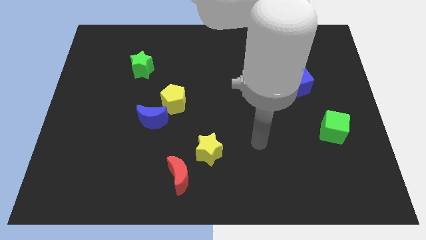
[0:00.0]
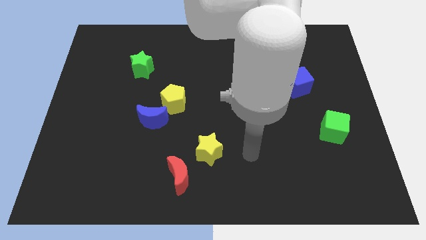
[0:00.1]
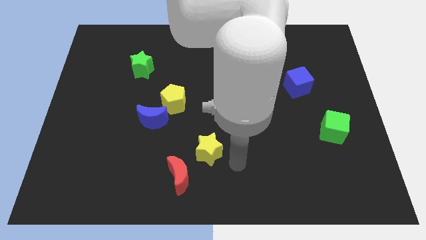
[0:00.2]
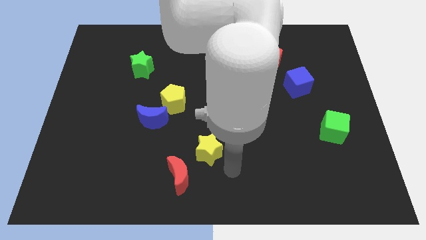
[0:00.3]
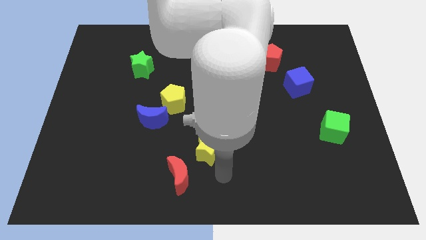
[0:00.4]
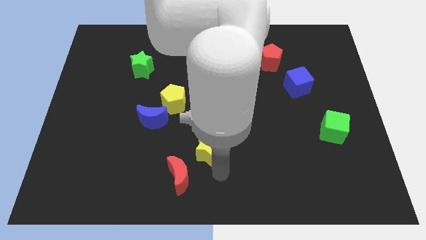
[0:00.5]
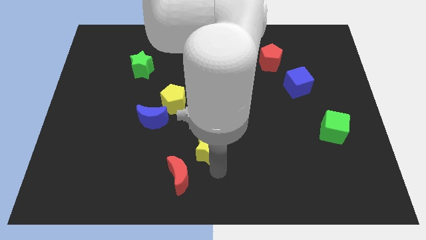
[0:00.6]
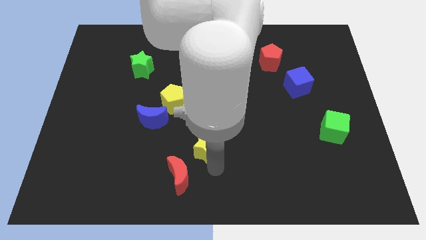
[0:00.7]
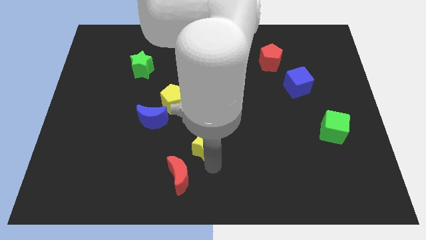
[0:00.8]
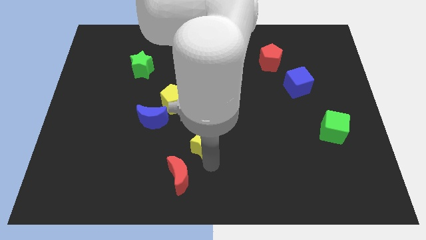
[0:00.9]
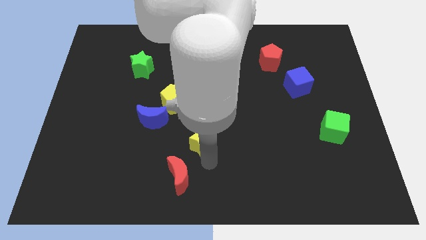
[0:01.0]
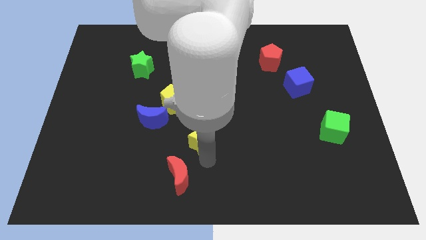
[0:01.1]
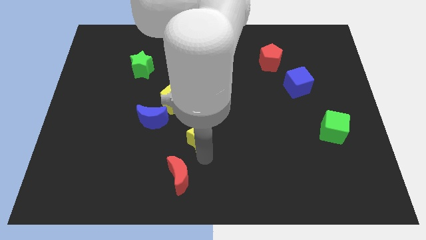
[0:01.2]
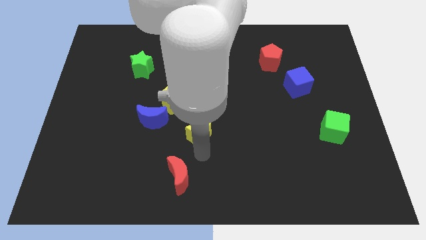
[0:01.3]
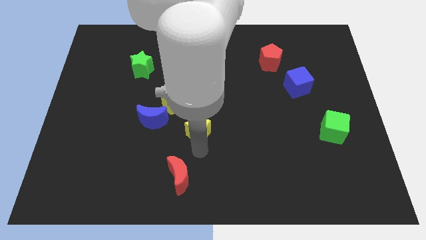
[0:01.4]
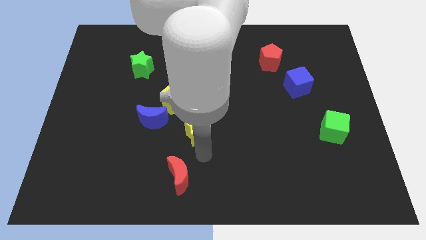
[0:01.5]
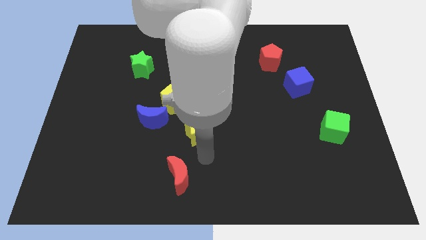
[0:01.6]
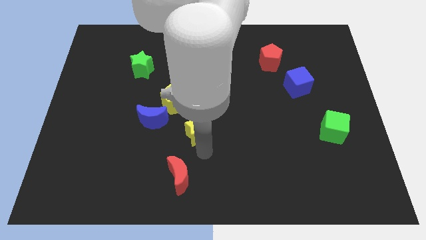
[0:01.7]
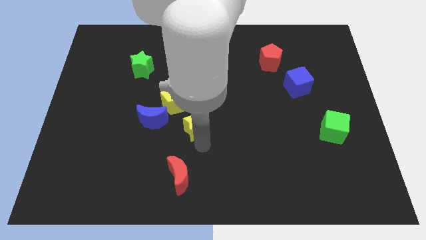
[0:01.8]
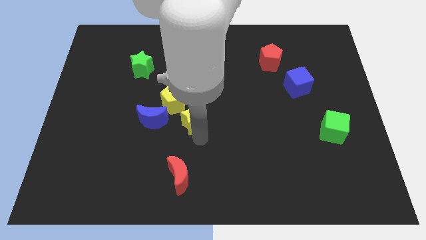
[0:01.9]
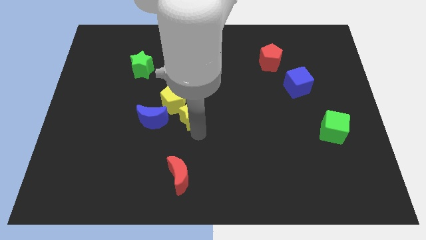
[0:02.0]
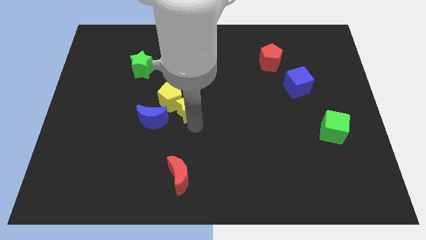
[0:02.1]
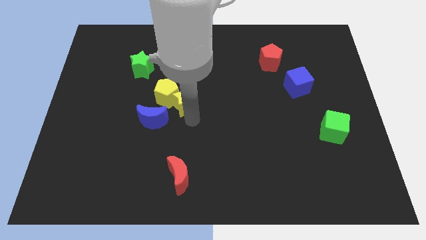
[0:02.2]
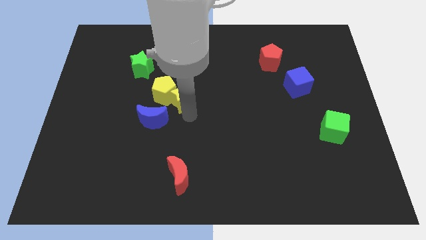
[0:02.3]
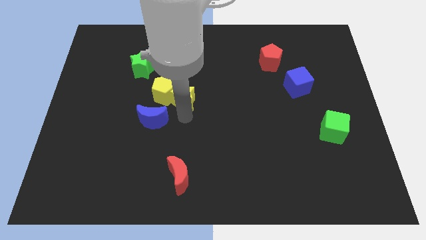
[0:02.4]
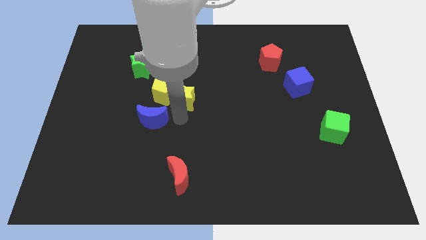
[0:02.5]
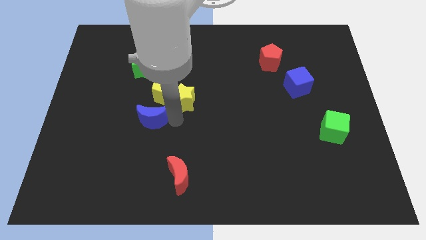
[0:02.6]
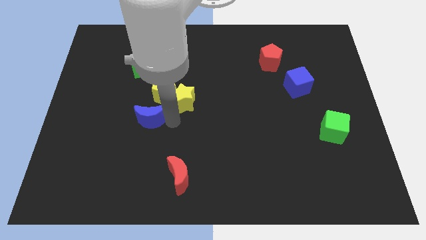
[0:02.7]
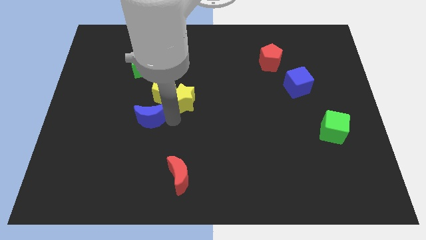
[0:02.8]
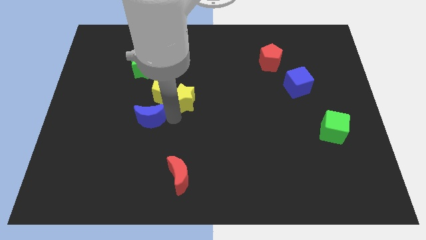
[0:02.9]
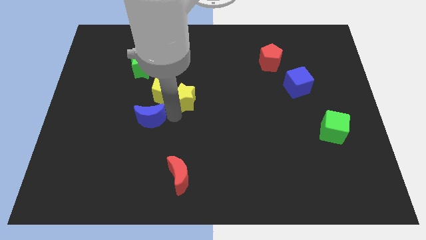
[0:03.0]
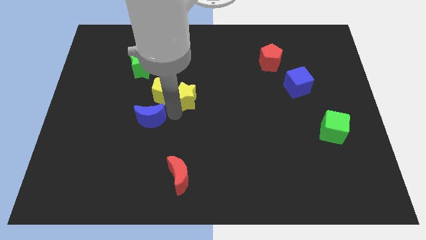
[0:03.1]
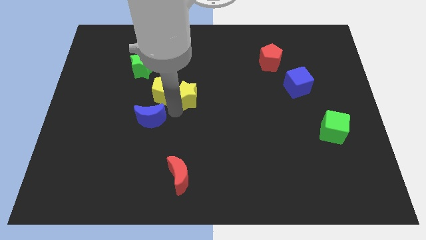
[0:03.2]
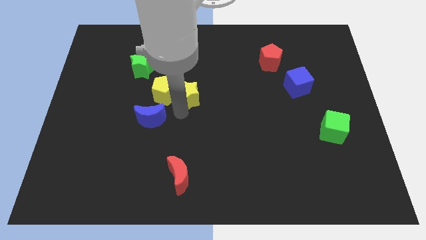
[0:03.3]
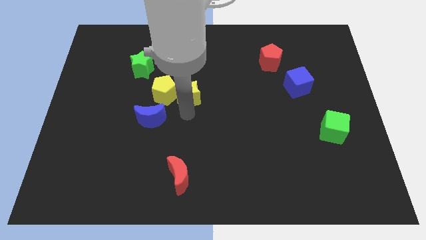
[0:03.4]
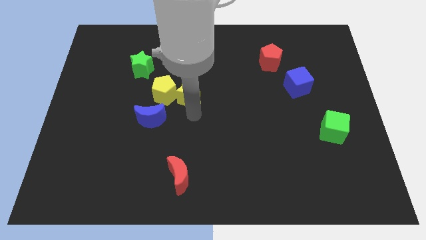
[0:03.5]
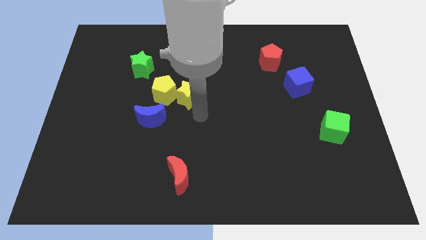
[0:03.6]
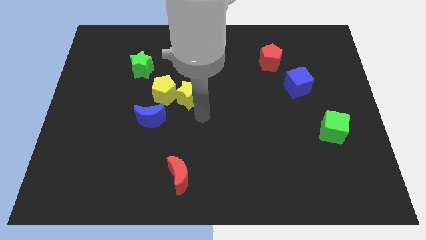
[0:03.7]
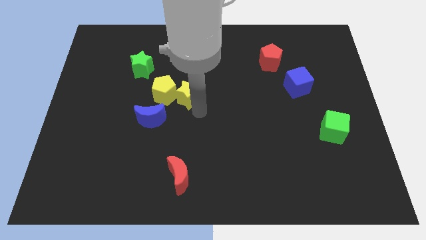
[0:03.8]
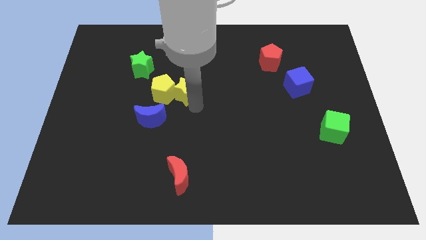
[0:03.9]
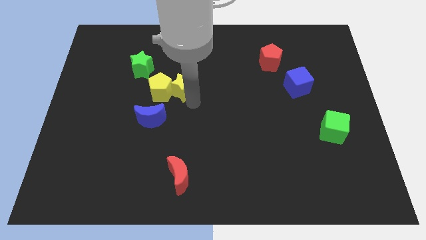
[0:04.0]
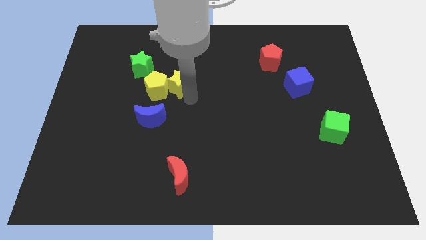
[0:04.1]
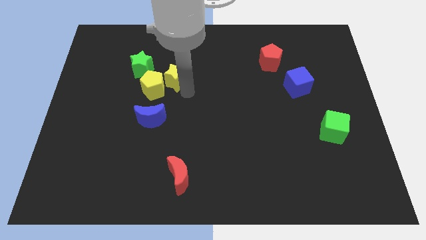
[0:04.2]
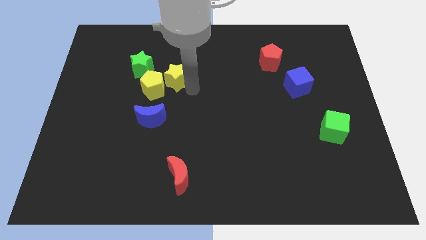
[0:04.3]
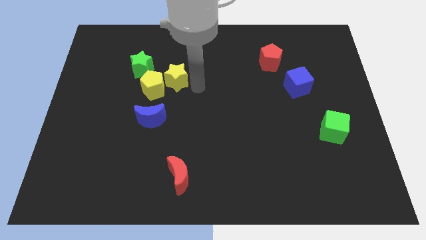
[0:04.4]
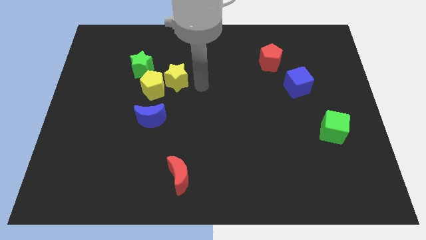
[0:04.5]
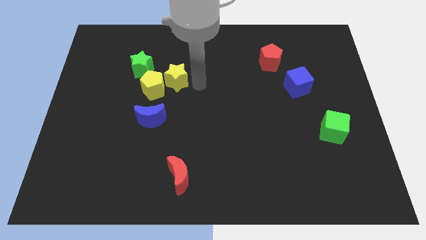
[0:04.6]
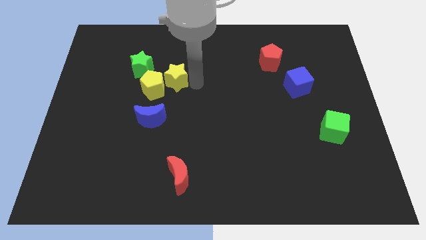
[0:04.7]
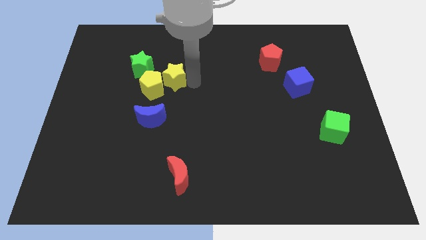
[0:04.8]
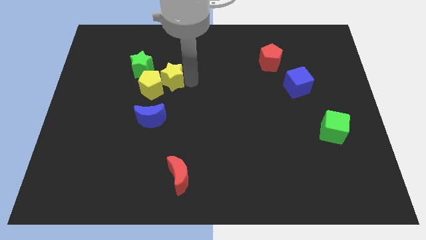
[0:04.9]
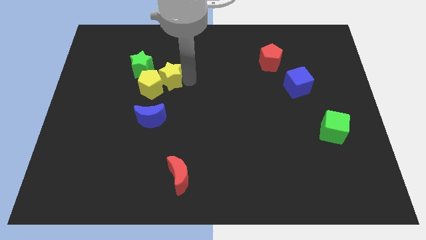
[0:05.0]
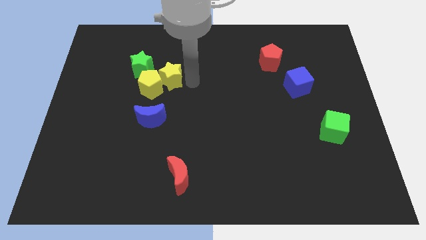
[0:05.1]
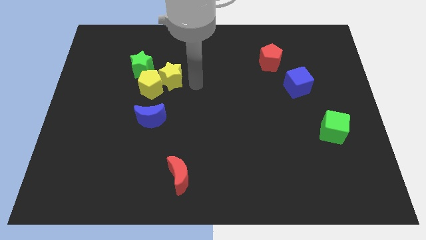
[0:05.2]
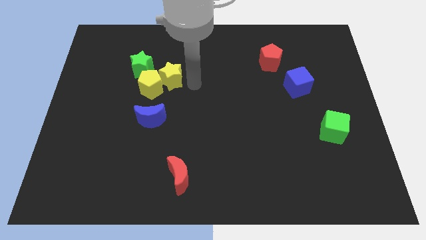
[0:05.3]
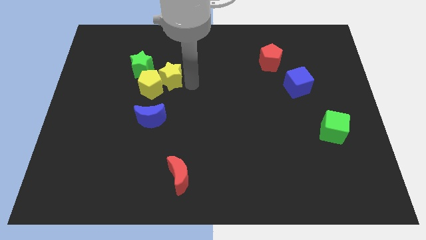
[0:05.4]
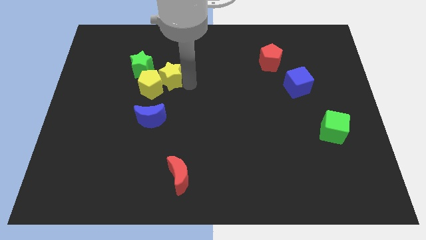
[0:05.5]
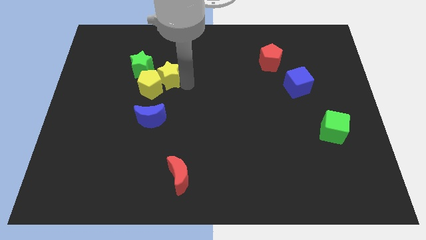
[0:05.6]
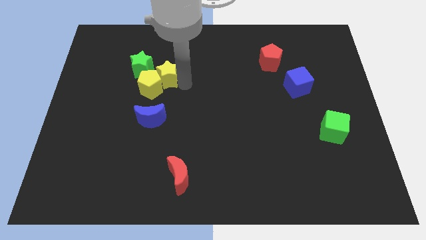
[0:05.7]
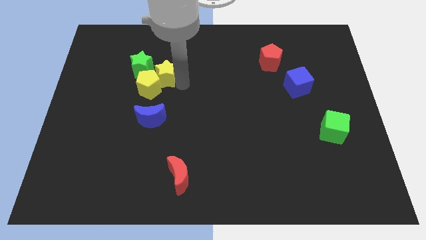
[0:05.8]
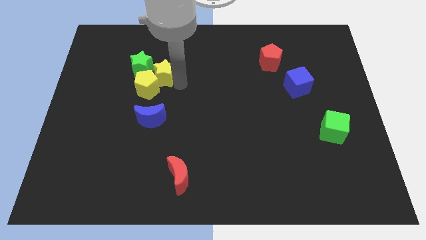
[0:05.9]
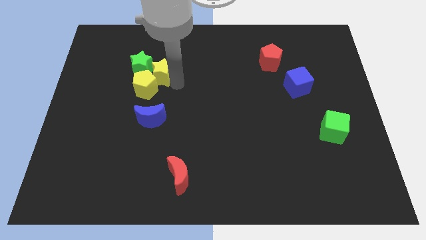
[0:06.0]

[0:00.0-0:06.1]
put the yellow star towards the green star
